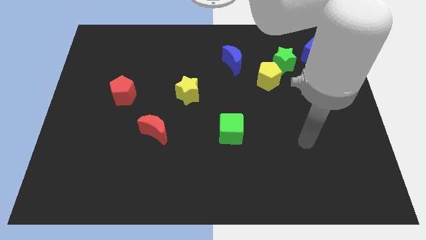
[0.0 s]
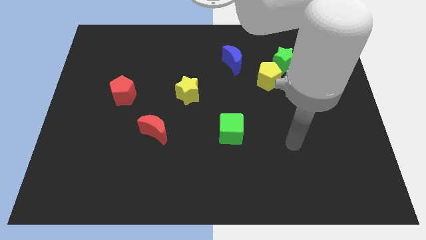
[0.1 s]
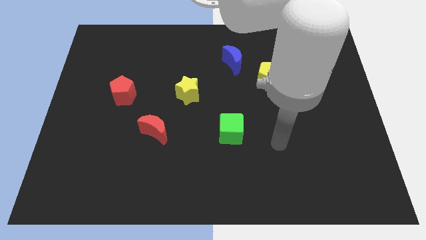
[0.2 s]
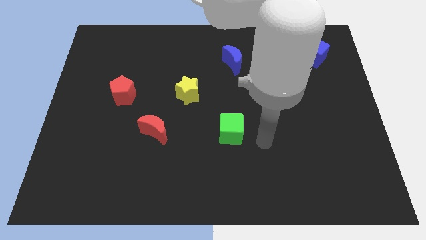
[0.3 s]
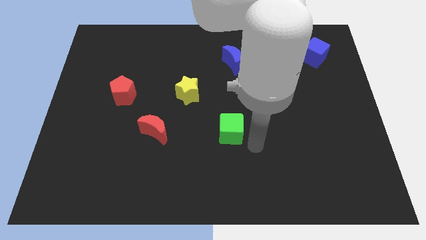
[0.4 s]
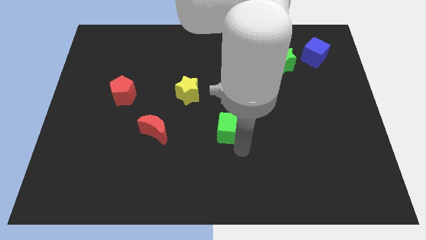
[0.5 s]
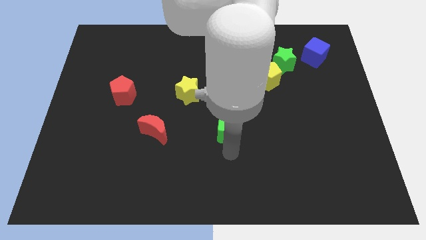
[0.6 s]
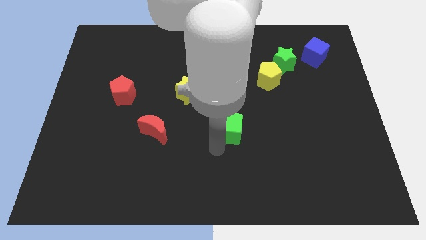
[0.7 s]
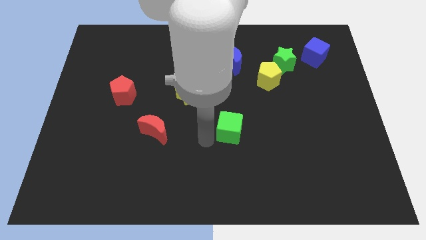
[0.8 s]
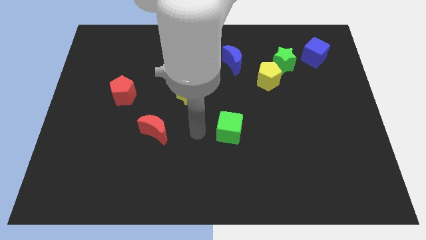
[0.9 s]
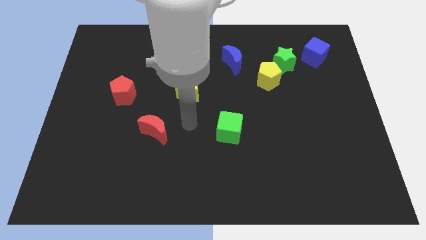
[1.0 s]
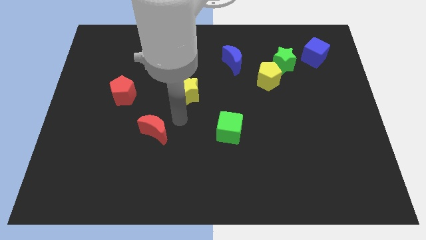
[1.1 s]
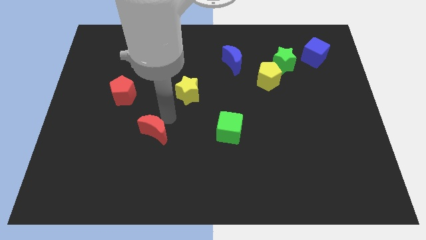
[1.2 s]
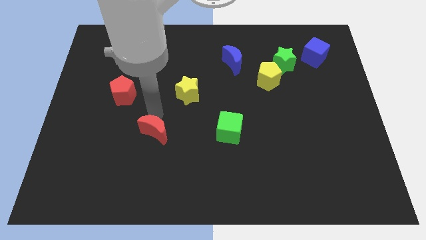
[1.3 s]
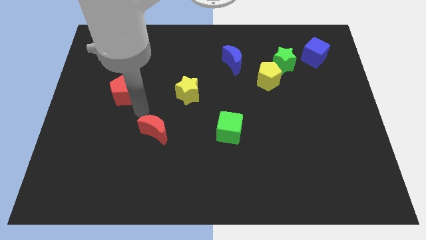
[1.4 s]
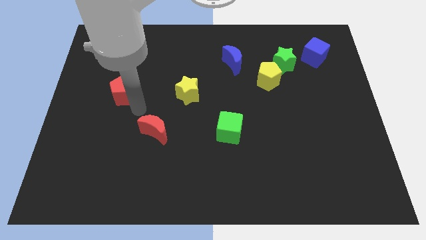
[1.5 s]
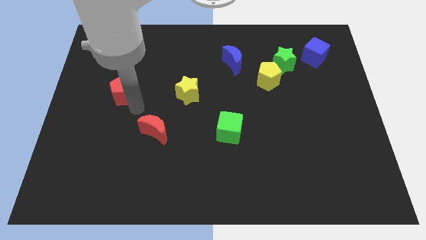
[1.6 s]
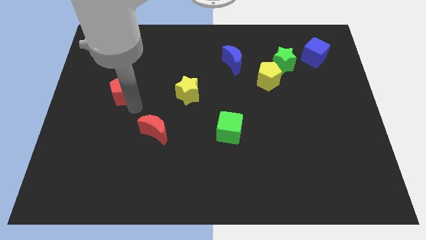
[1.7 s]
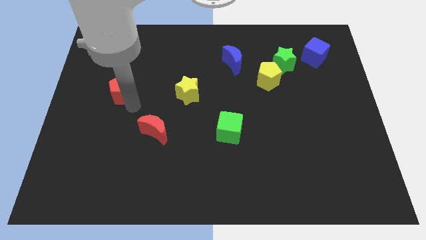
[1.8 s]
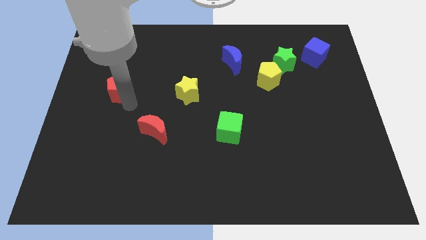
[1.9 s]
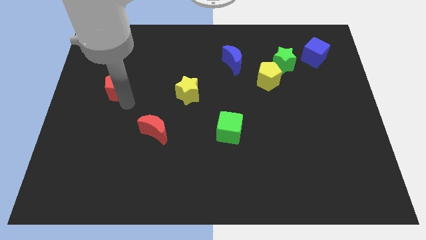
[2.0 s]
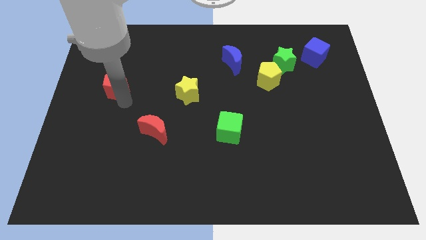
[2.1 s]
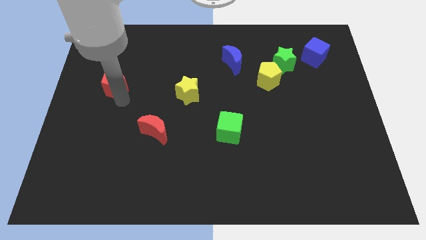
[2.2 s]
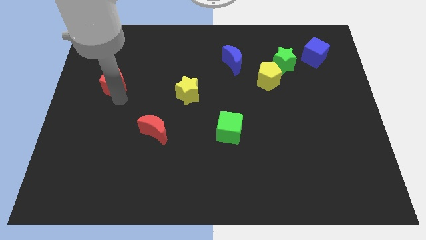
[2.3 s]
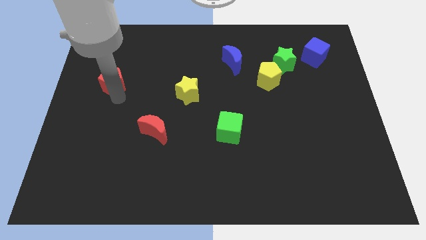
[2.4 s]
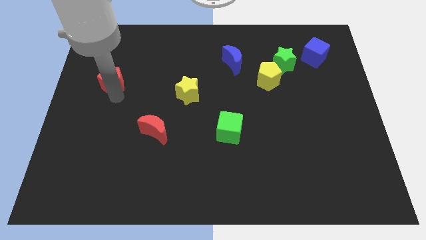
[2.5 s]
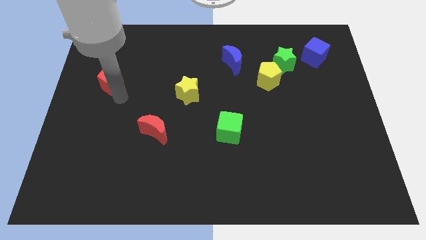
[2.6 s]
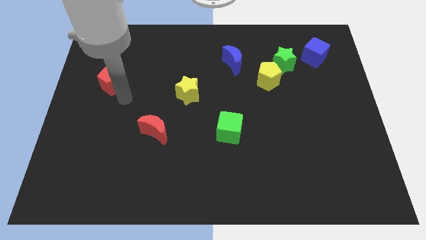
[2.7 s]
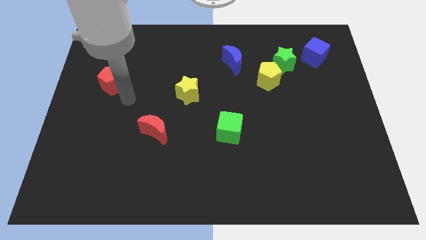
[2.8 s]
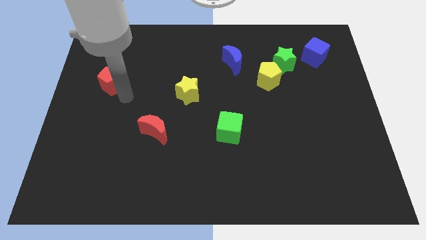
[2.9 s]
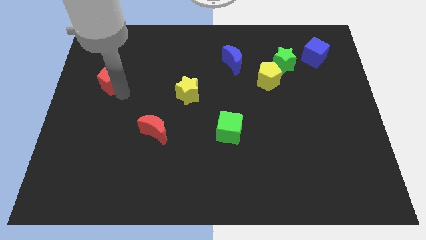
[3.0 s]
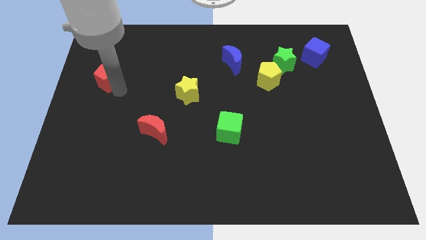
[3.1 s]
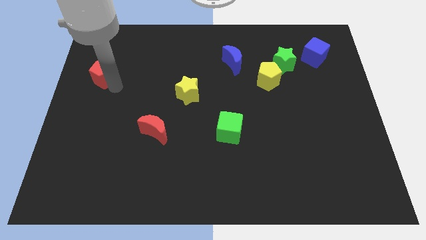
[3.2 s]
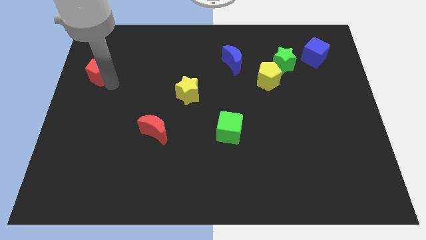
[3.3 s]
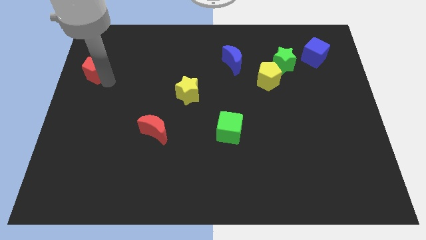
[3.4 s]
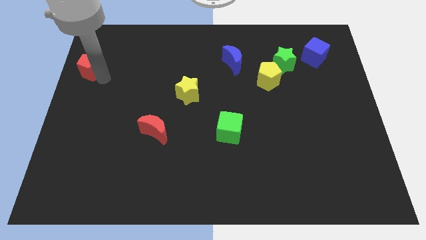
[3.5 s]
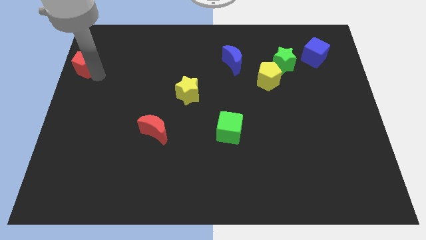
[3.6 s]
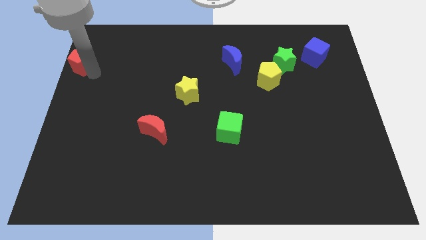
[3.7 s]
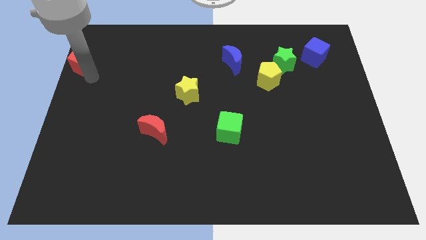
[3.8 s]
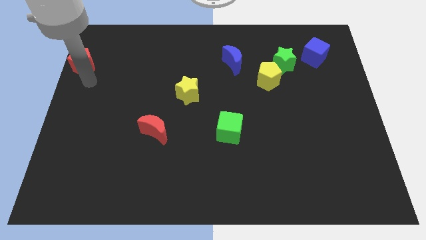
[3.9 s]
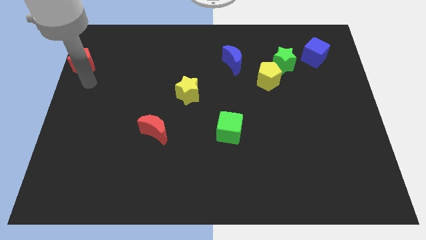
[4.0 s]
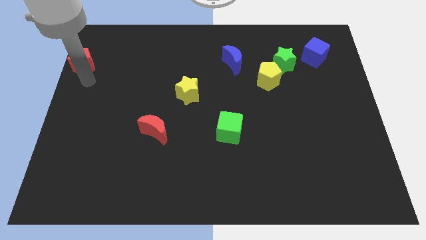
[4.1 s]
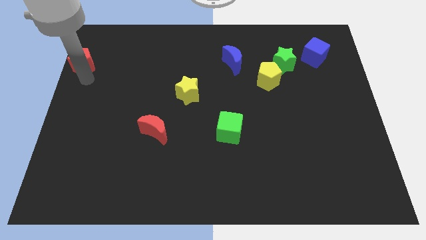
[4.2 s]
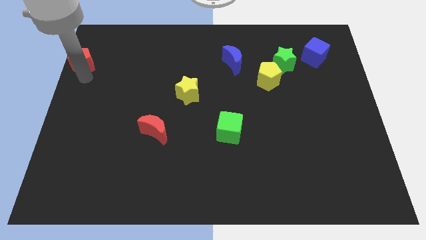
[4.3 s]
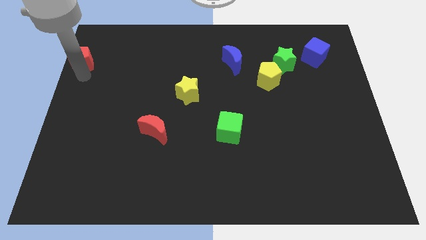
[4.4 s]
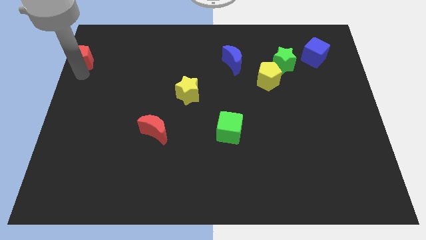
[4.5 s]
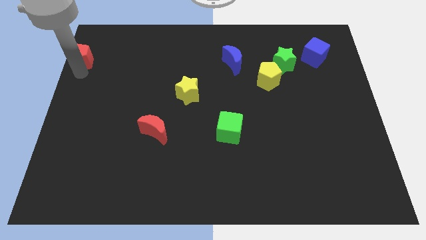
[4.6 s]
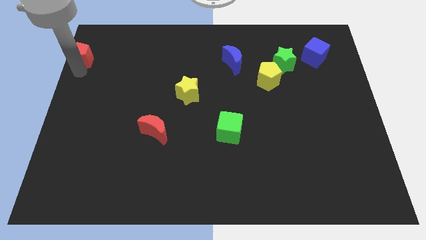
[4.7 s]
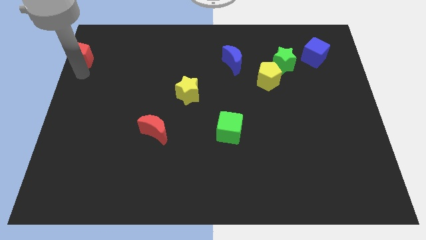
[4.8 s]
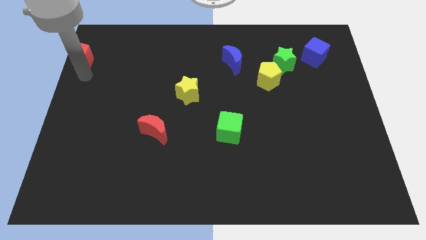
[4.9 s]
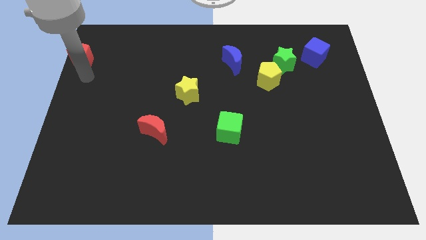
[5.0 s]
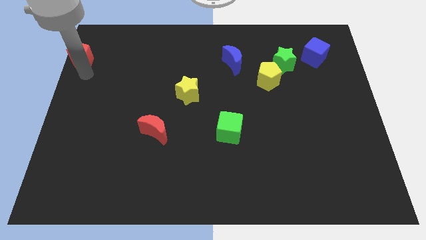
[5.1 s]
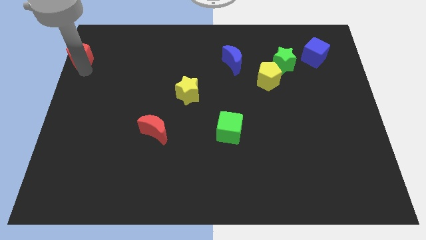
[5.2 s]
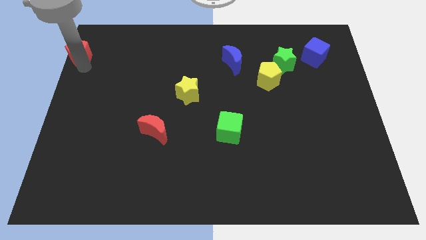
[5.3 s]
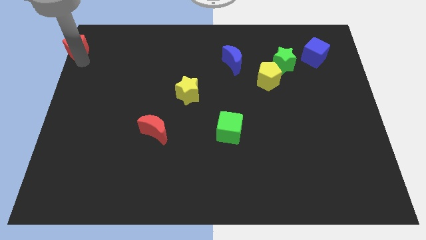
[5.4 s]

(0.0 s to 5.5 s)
put the red pentagon to the top left of the board
